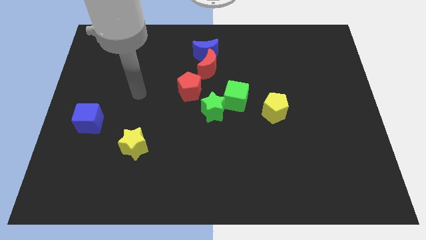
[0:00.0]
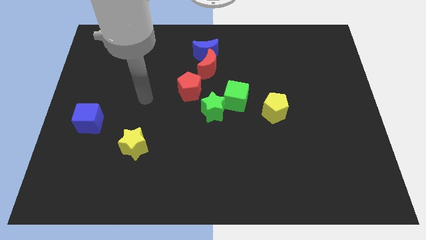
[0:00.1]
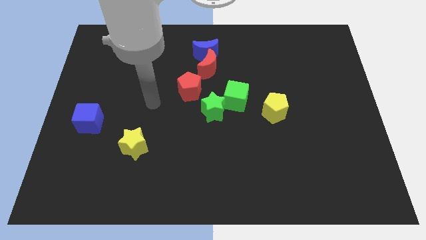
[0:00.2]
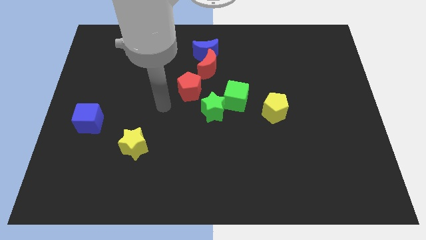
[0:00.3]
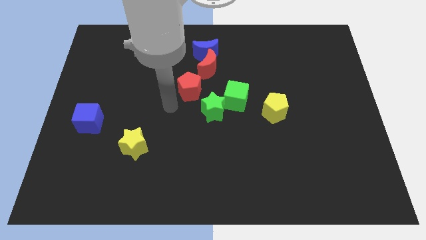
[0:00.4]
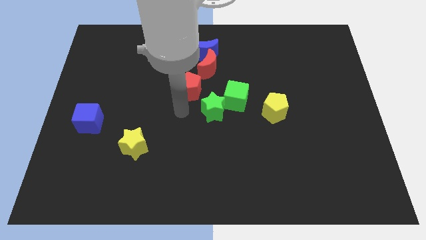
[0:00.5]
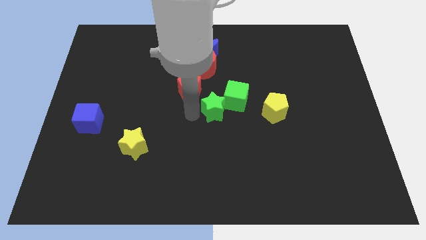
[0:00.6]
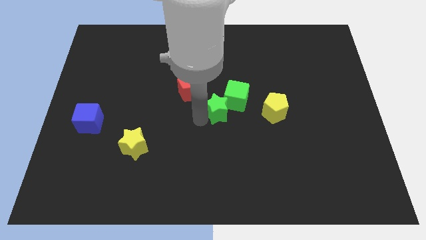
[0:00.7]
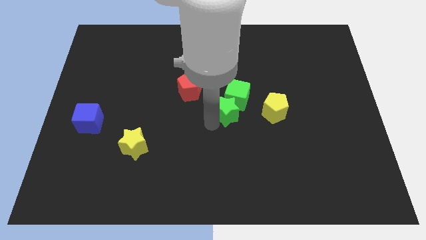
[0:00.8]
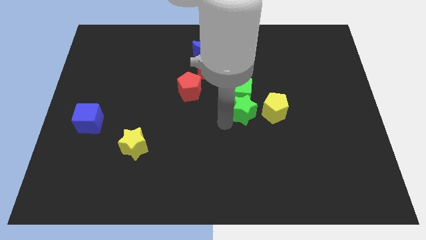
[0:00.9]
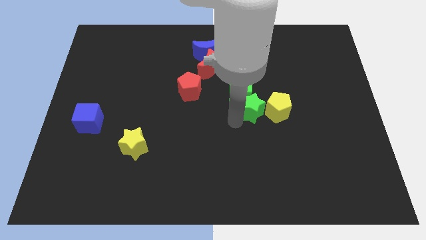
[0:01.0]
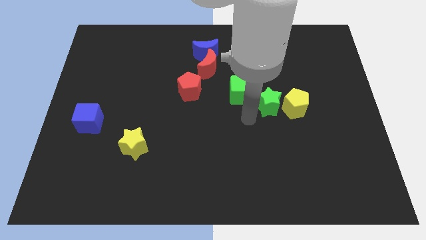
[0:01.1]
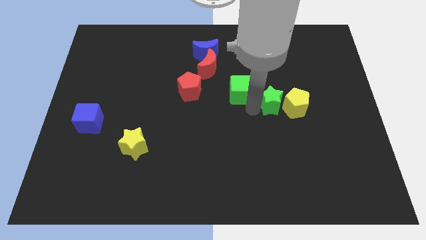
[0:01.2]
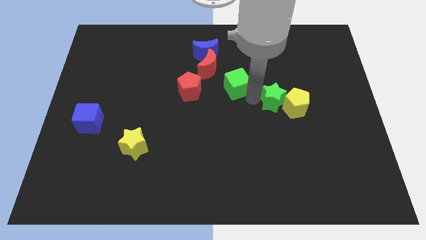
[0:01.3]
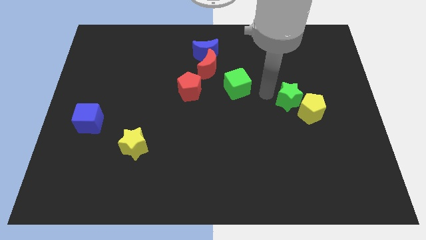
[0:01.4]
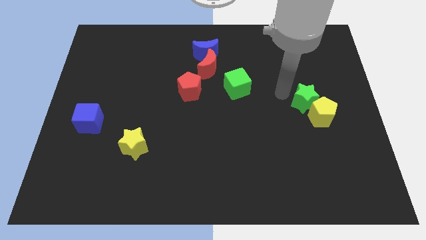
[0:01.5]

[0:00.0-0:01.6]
slightly slide the yellow pentagon diagonally downwards and right

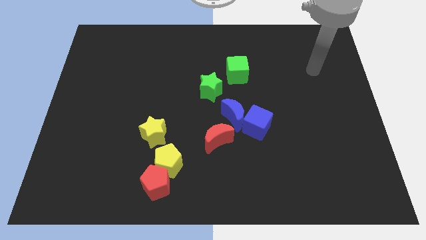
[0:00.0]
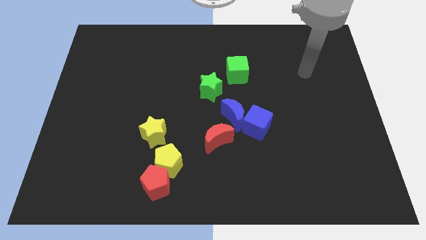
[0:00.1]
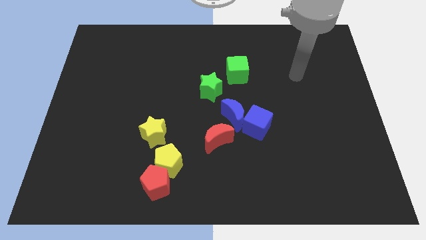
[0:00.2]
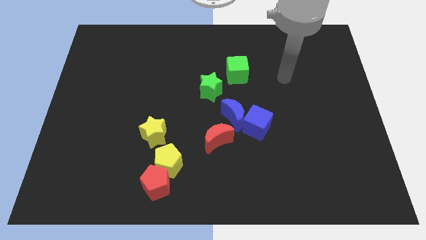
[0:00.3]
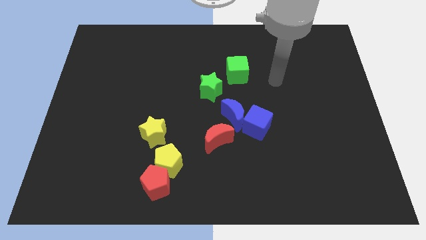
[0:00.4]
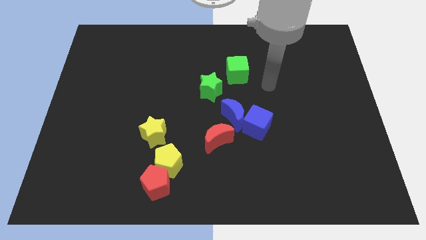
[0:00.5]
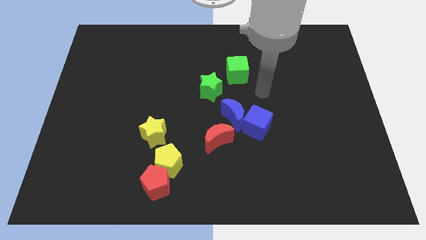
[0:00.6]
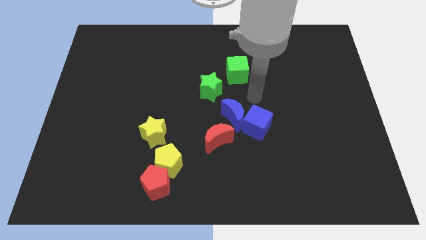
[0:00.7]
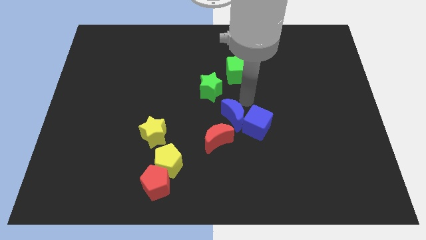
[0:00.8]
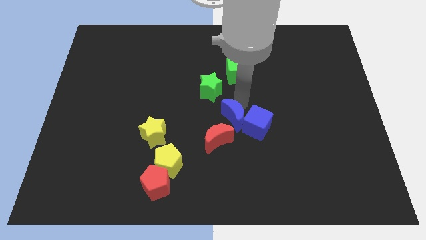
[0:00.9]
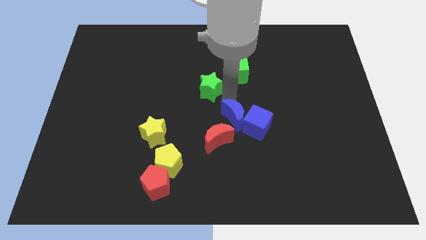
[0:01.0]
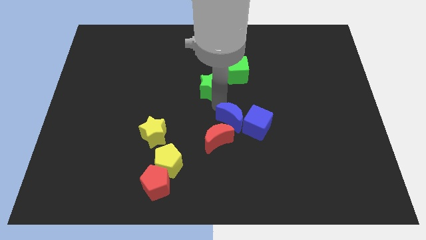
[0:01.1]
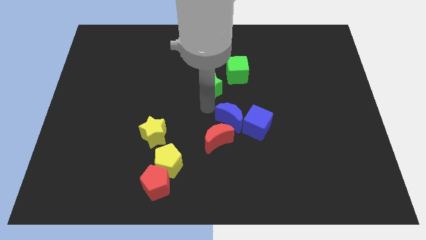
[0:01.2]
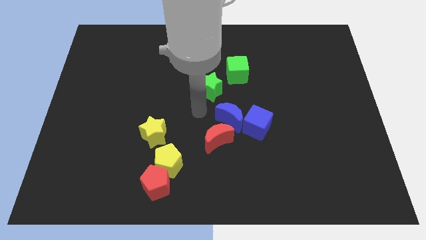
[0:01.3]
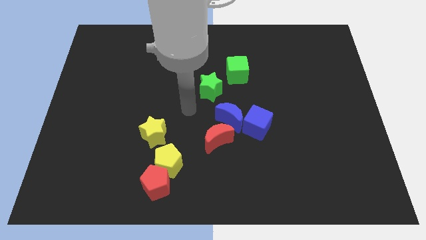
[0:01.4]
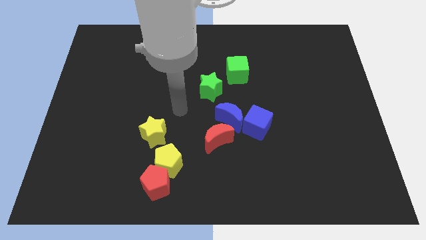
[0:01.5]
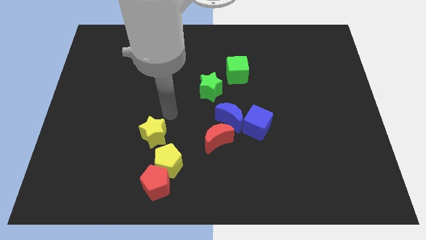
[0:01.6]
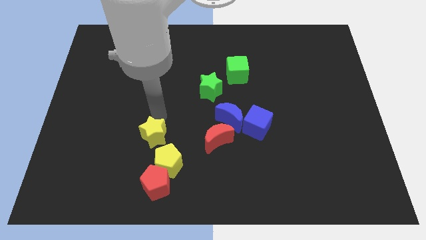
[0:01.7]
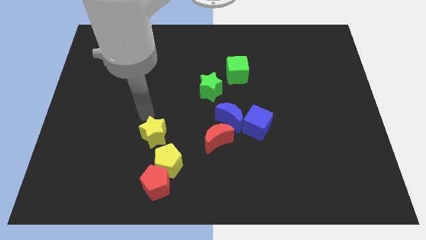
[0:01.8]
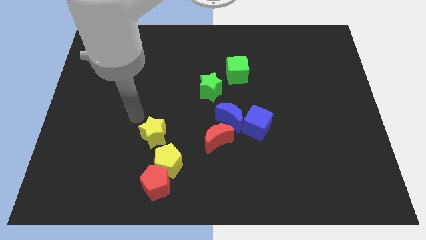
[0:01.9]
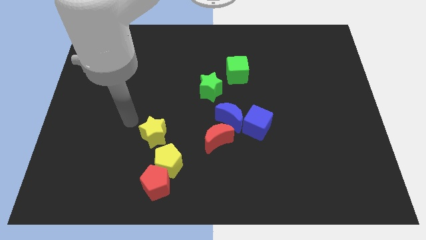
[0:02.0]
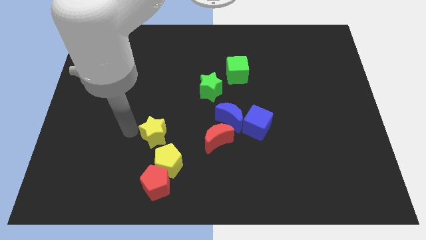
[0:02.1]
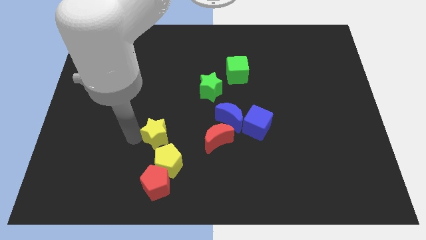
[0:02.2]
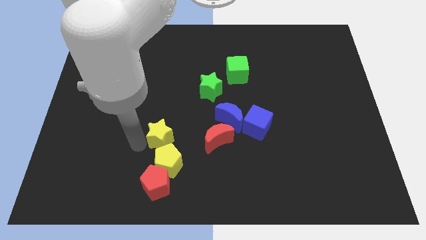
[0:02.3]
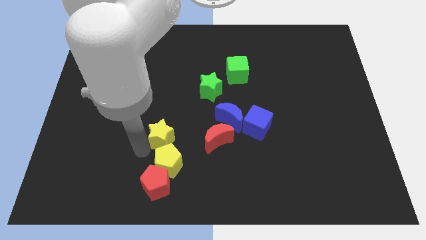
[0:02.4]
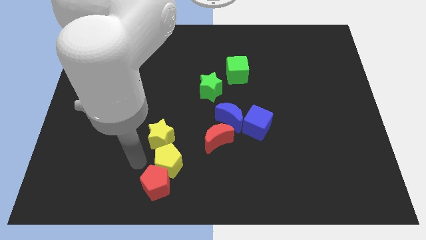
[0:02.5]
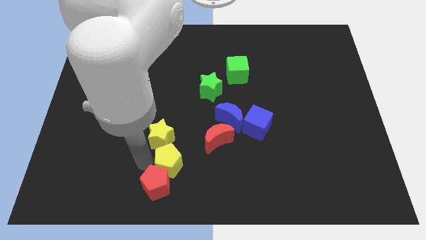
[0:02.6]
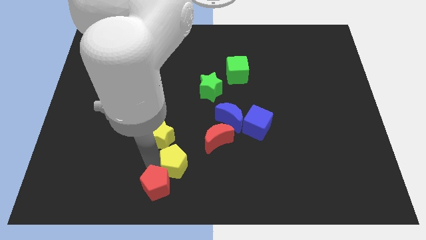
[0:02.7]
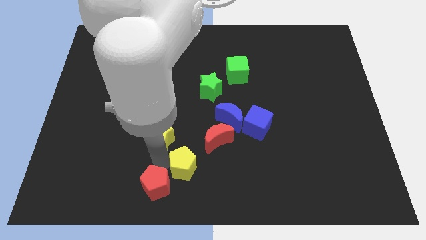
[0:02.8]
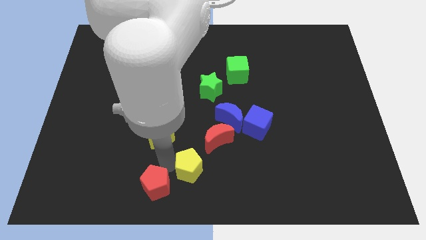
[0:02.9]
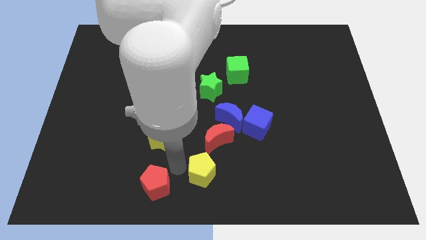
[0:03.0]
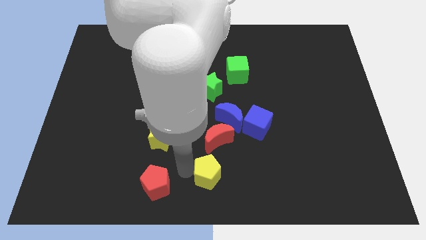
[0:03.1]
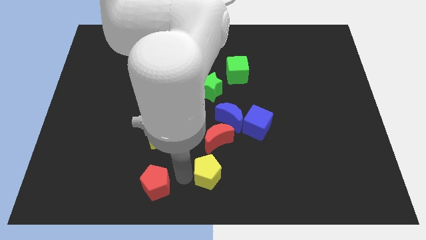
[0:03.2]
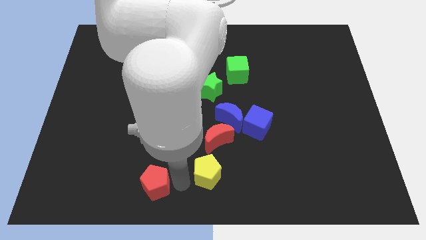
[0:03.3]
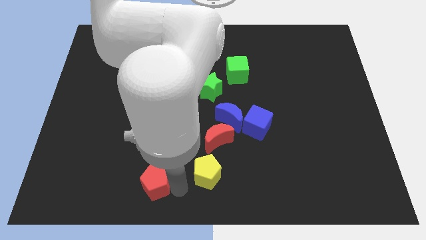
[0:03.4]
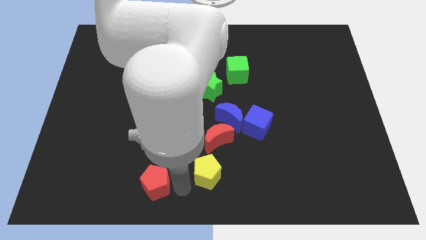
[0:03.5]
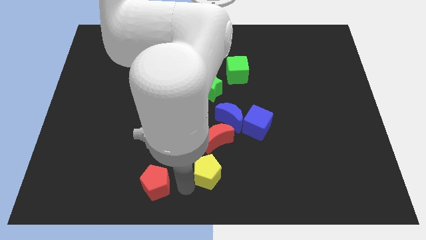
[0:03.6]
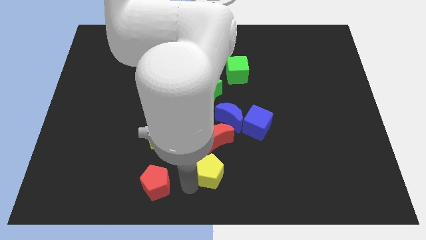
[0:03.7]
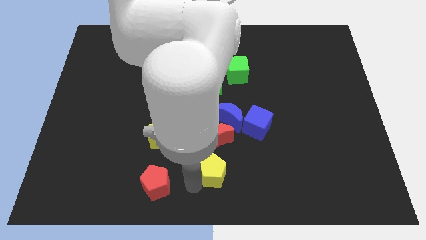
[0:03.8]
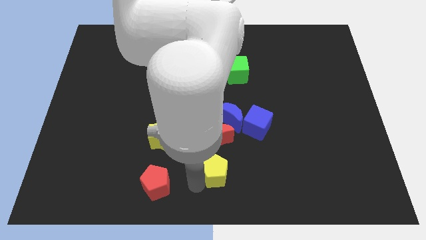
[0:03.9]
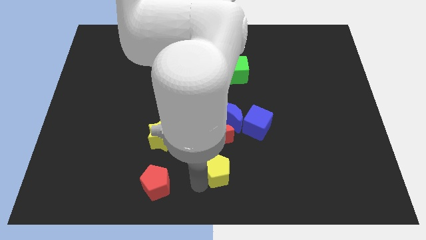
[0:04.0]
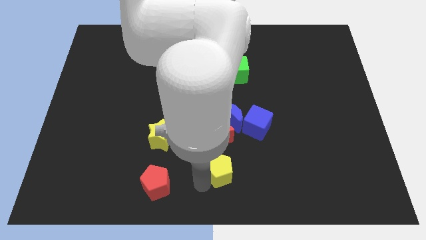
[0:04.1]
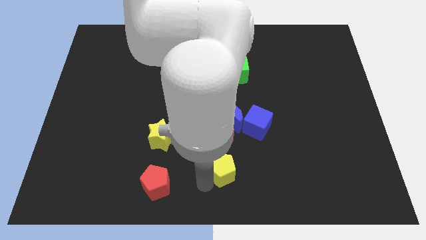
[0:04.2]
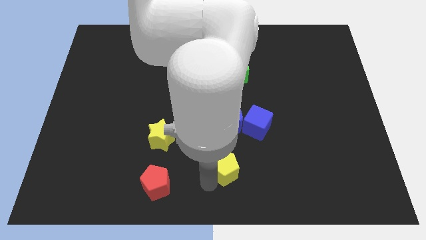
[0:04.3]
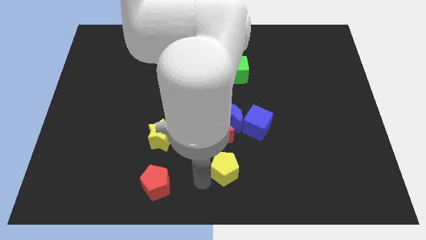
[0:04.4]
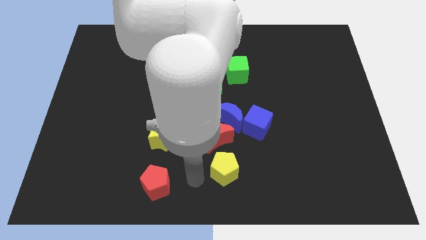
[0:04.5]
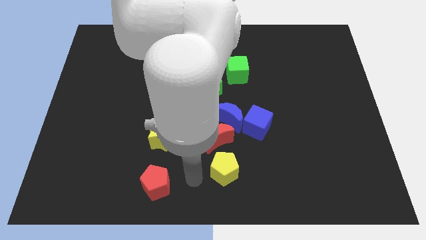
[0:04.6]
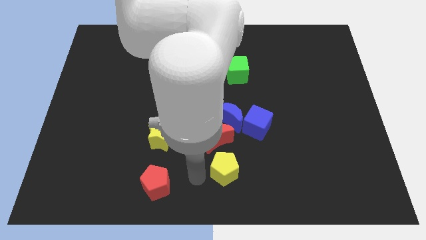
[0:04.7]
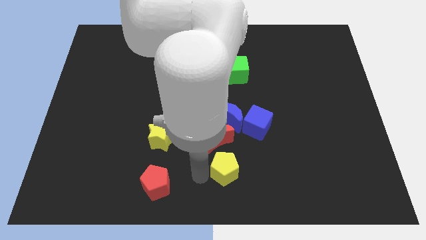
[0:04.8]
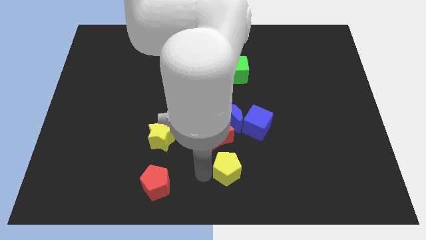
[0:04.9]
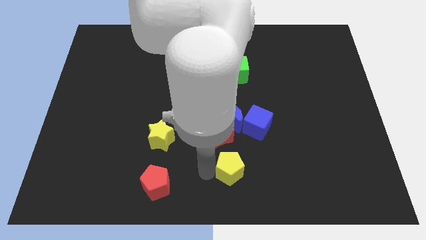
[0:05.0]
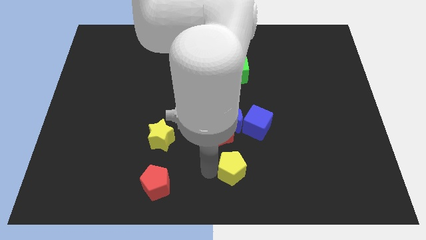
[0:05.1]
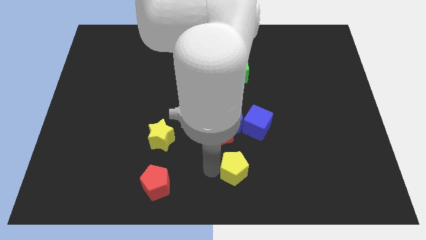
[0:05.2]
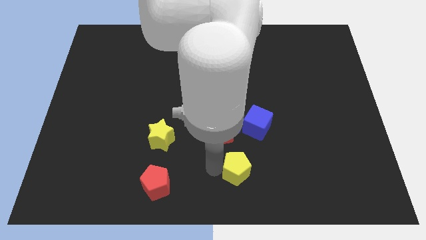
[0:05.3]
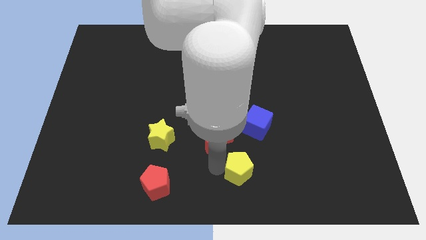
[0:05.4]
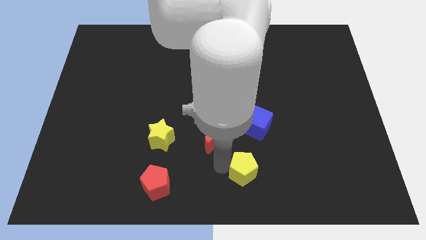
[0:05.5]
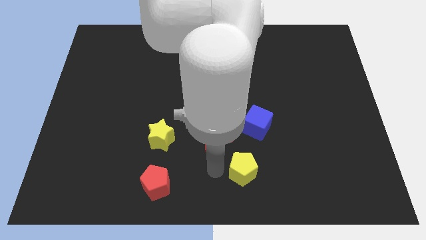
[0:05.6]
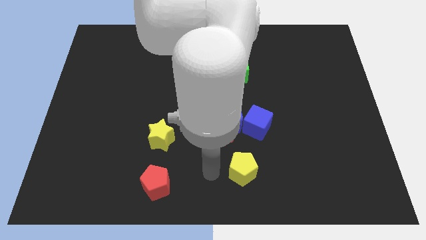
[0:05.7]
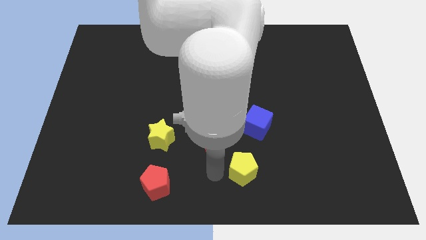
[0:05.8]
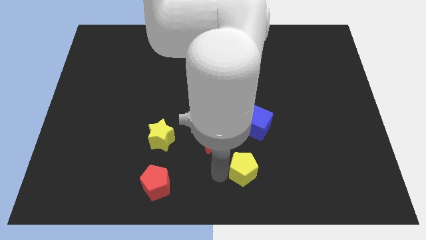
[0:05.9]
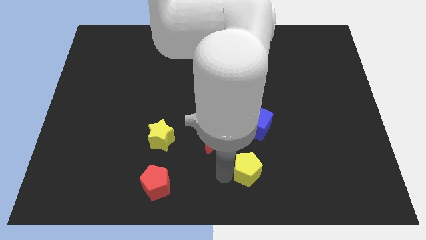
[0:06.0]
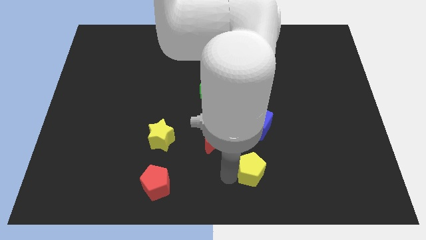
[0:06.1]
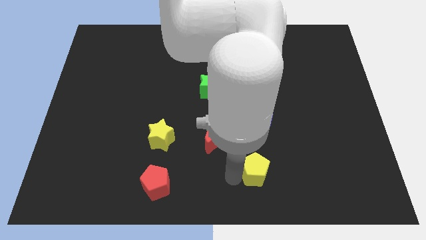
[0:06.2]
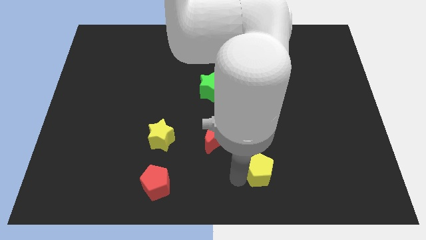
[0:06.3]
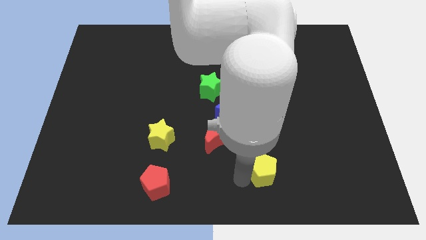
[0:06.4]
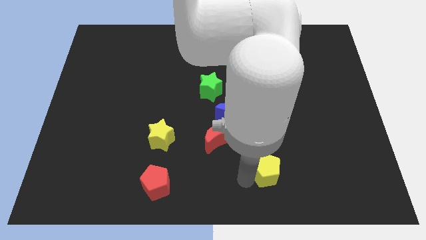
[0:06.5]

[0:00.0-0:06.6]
slide the yellow pentagon right
